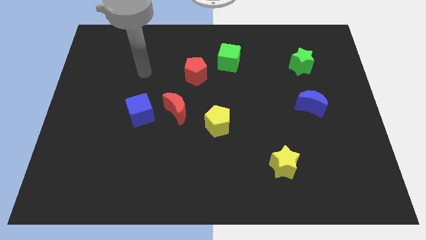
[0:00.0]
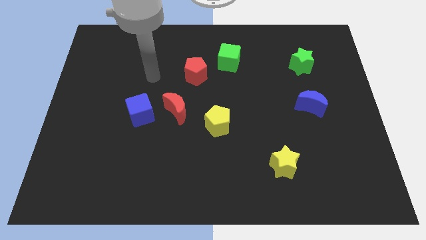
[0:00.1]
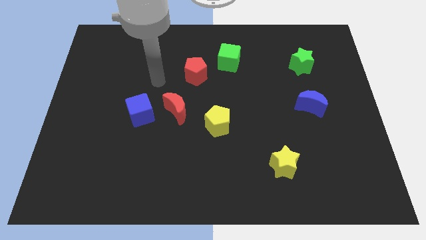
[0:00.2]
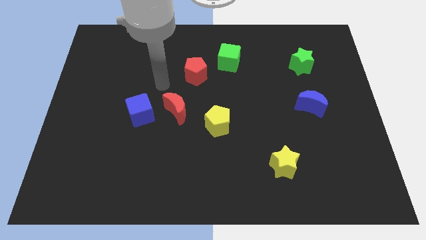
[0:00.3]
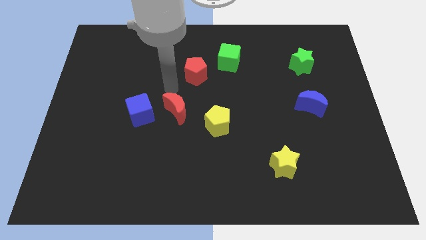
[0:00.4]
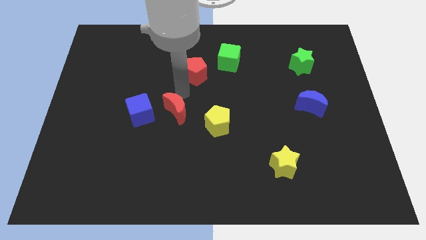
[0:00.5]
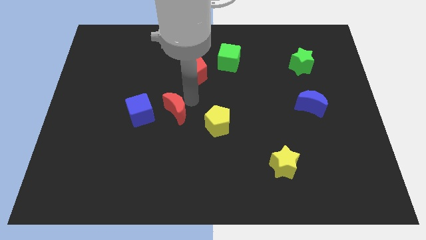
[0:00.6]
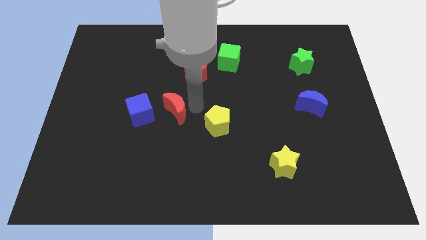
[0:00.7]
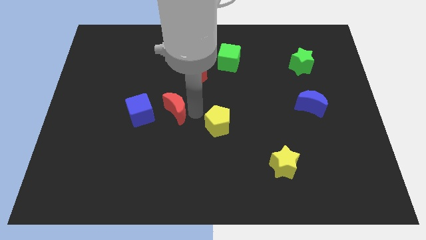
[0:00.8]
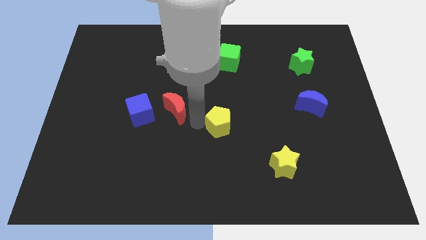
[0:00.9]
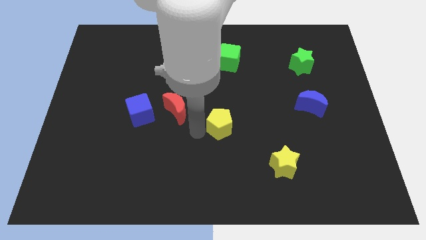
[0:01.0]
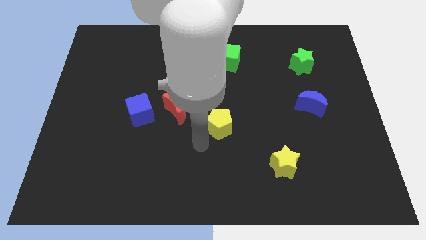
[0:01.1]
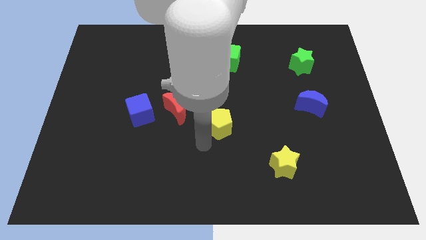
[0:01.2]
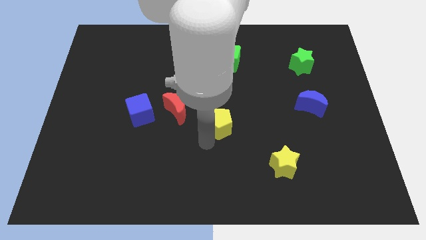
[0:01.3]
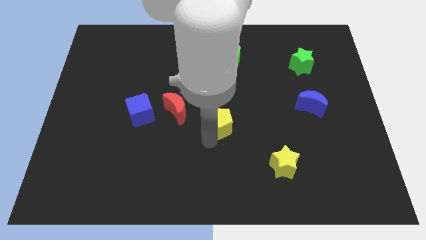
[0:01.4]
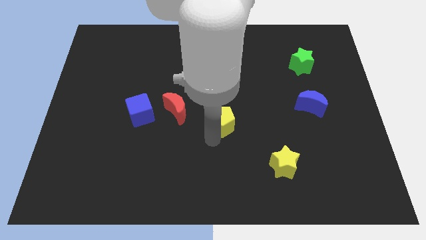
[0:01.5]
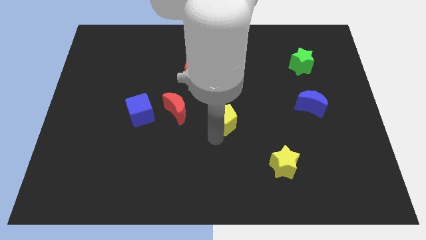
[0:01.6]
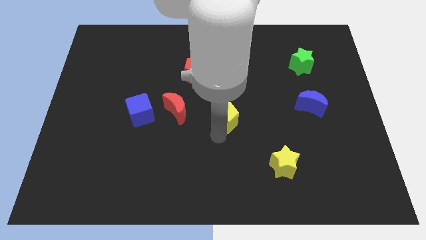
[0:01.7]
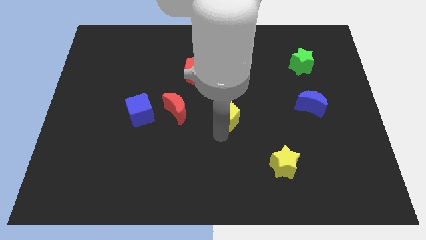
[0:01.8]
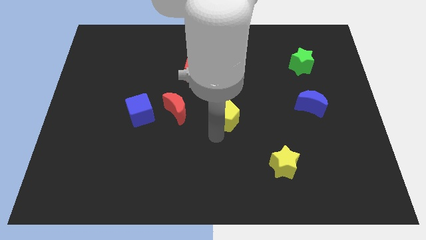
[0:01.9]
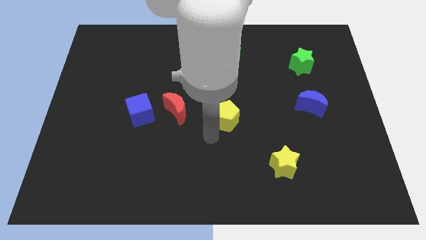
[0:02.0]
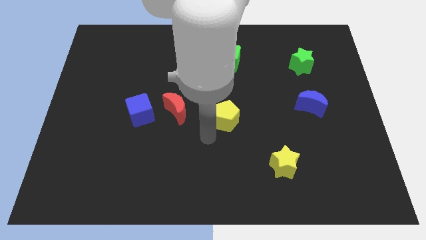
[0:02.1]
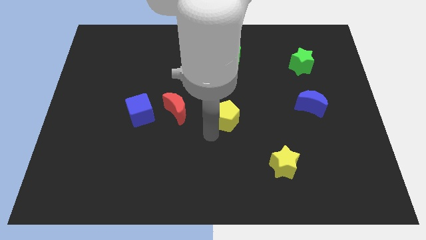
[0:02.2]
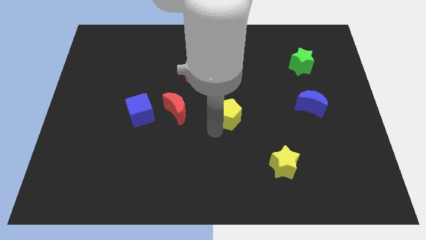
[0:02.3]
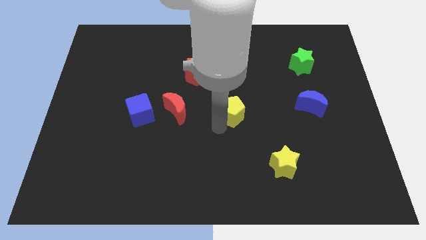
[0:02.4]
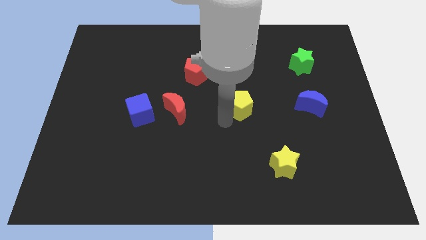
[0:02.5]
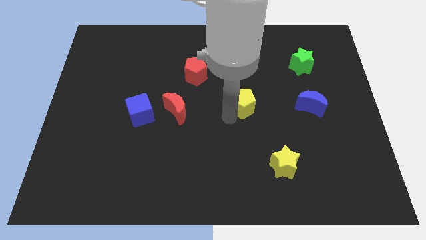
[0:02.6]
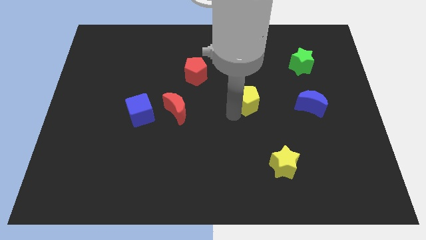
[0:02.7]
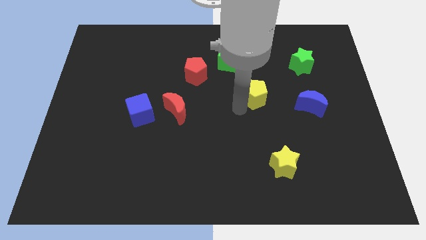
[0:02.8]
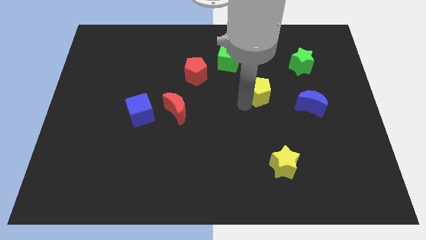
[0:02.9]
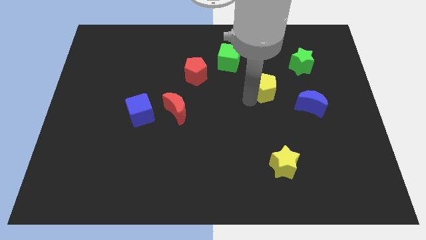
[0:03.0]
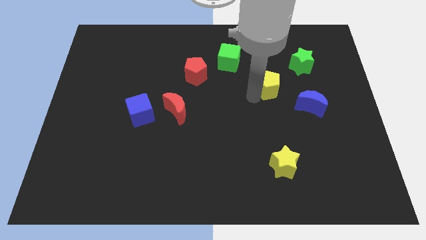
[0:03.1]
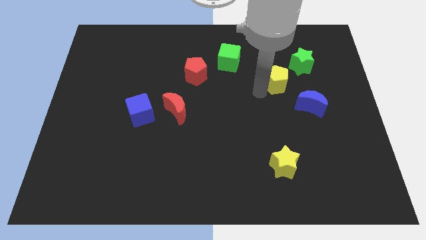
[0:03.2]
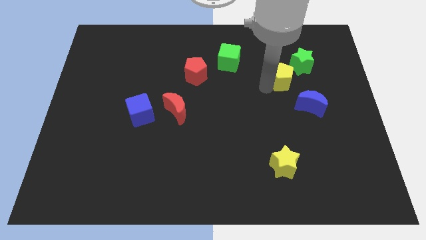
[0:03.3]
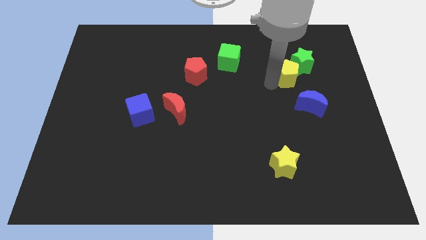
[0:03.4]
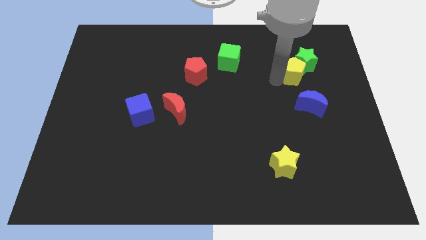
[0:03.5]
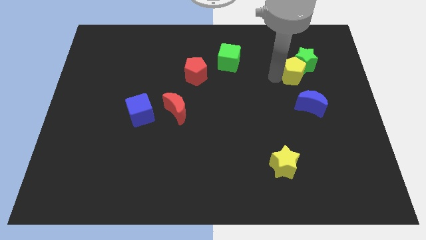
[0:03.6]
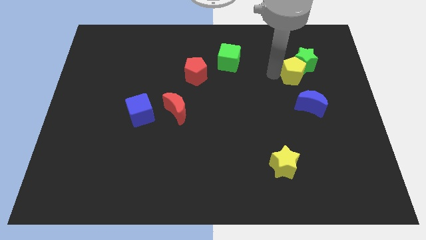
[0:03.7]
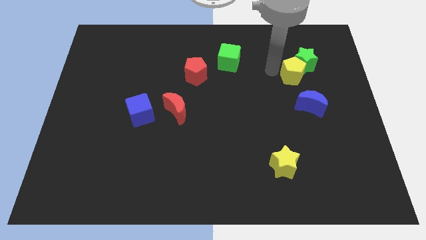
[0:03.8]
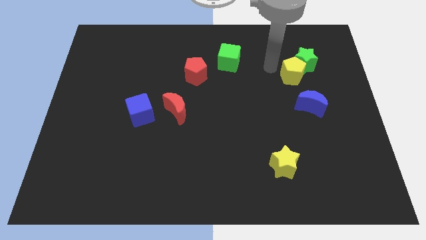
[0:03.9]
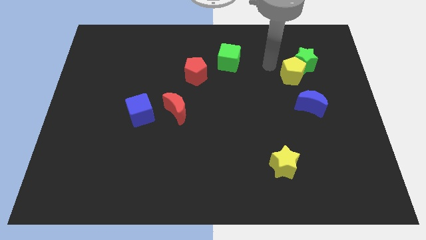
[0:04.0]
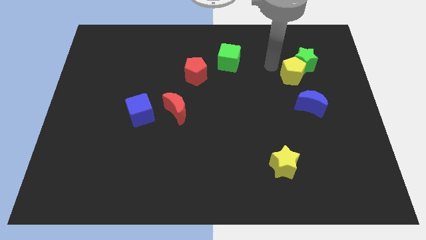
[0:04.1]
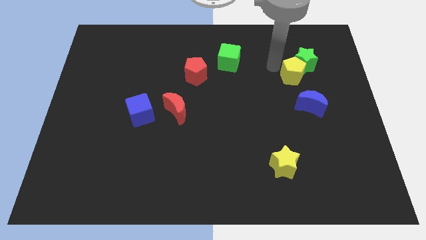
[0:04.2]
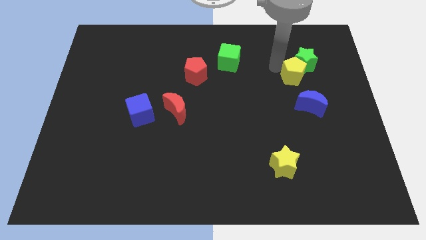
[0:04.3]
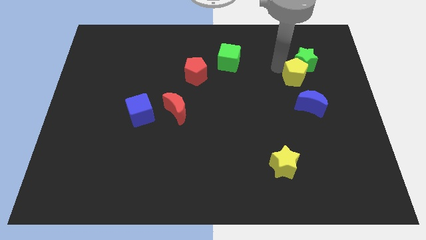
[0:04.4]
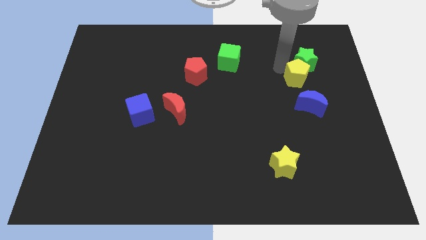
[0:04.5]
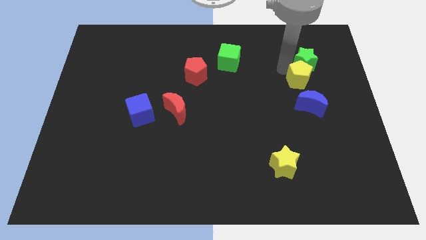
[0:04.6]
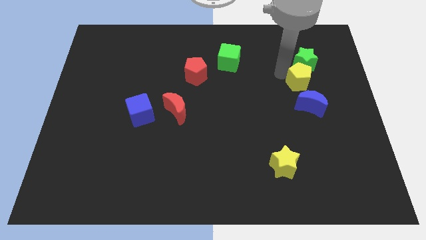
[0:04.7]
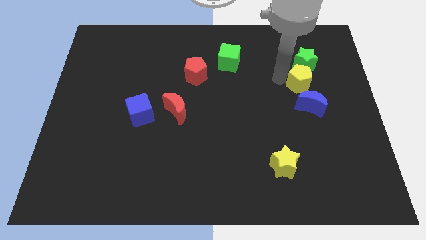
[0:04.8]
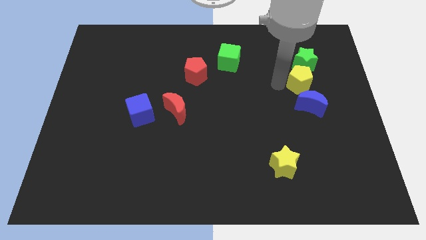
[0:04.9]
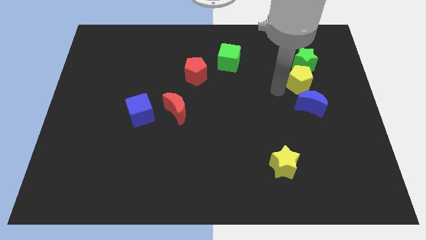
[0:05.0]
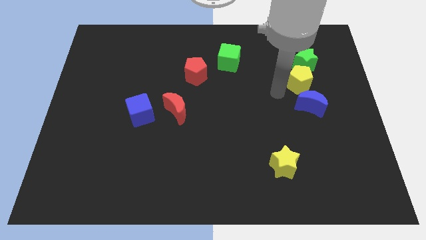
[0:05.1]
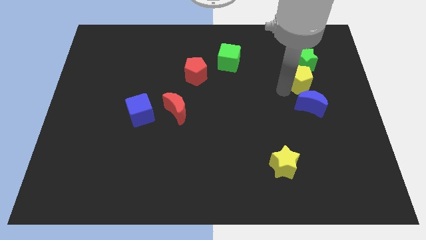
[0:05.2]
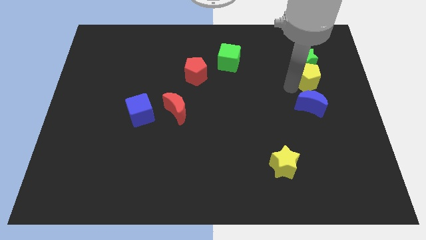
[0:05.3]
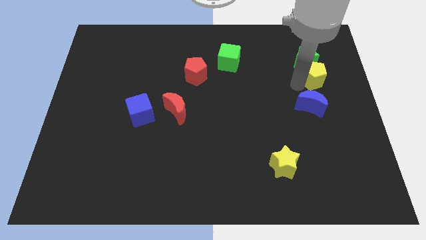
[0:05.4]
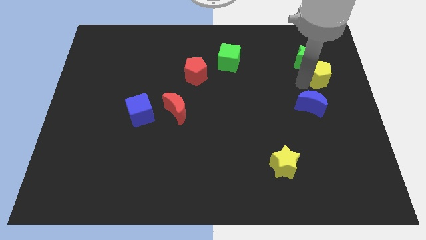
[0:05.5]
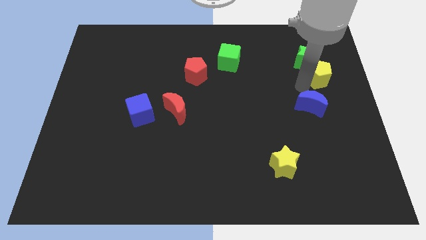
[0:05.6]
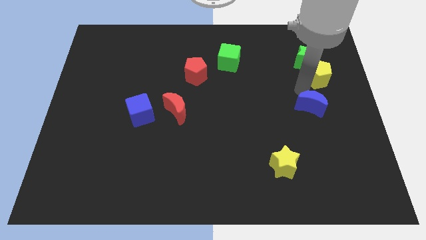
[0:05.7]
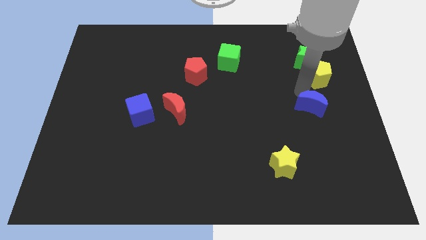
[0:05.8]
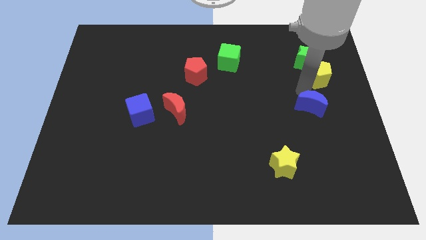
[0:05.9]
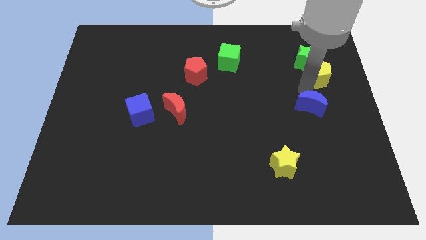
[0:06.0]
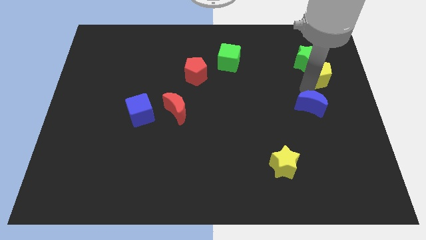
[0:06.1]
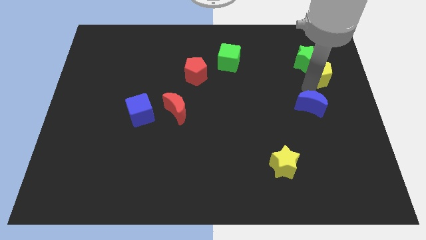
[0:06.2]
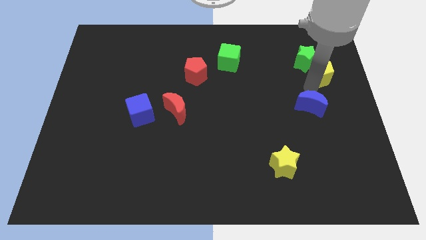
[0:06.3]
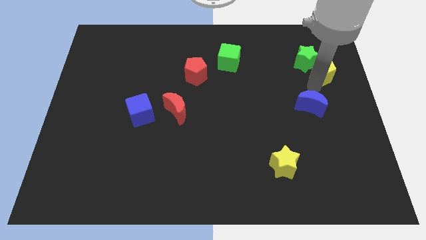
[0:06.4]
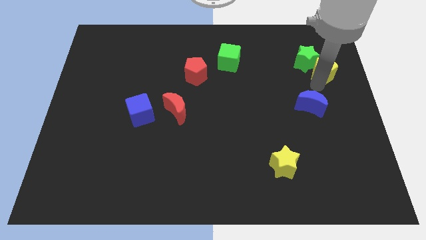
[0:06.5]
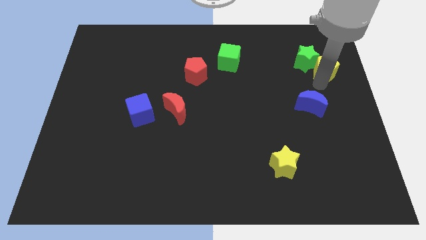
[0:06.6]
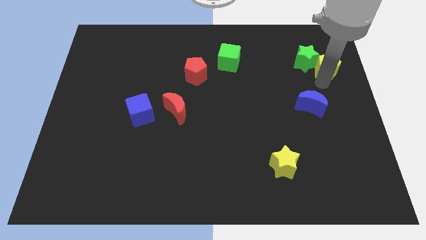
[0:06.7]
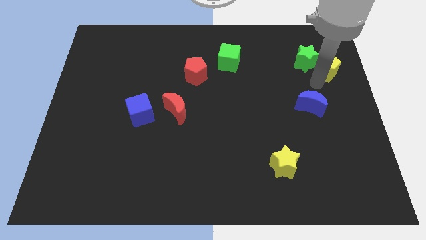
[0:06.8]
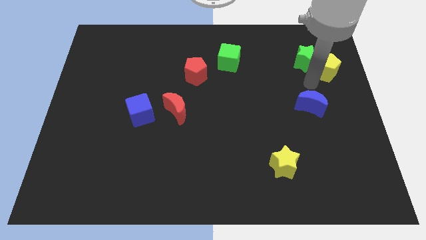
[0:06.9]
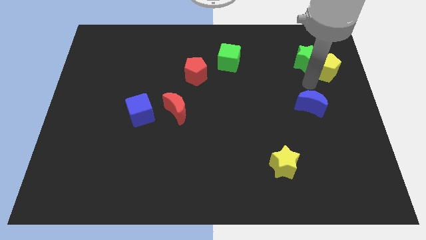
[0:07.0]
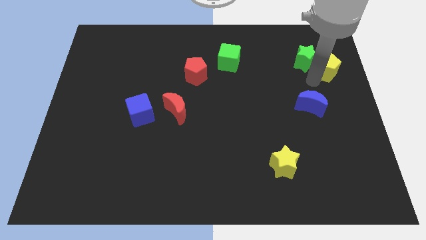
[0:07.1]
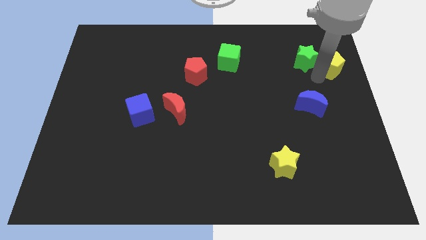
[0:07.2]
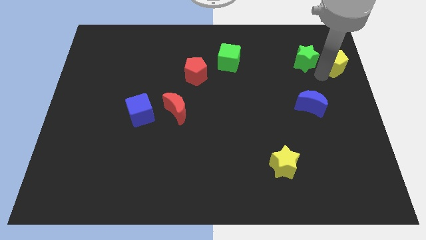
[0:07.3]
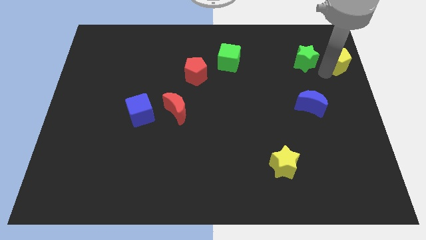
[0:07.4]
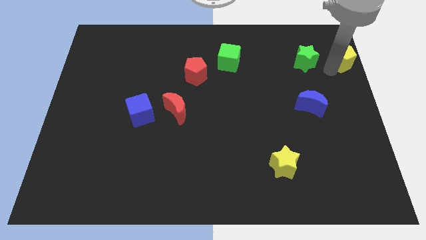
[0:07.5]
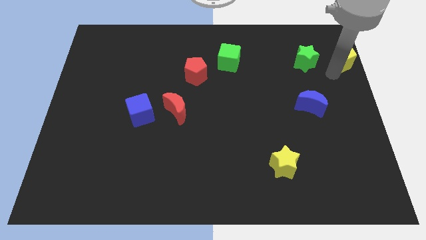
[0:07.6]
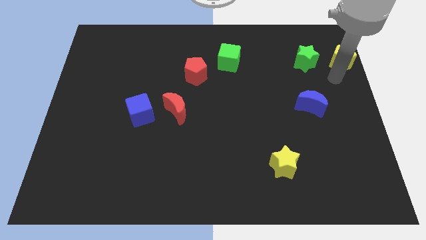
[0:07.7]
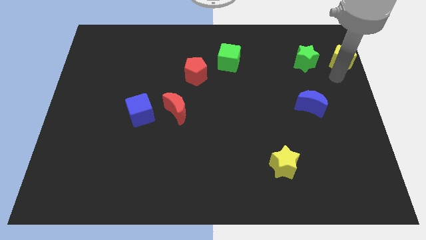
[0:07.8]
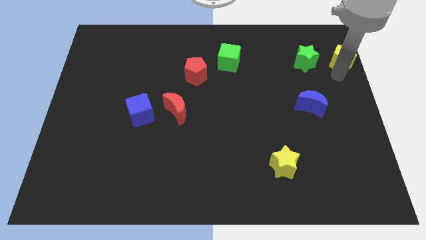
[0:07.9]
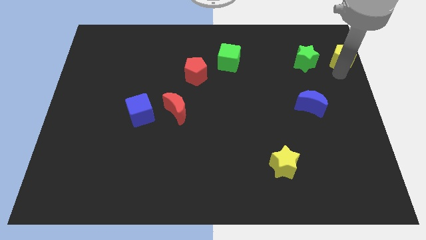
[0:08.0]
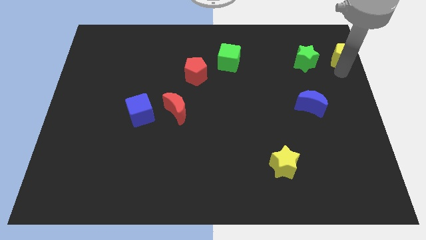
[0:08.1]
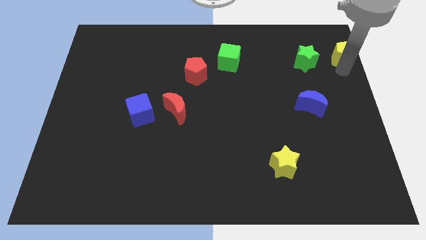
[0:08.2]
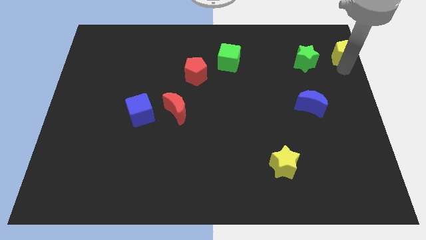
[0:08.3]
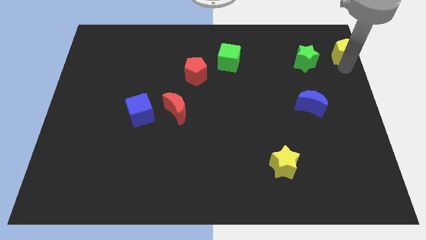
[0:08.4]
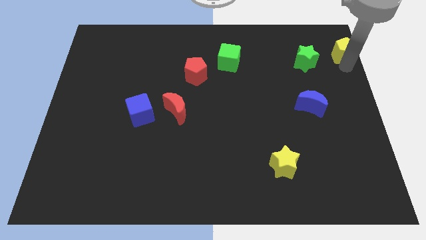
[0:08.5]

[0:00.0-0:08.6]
move the yellow pentagon to the top right of the board
